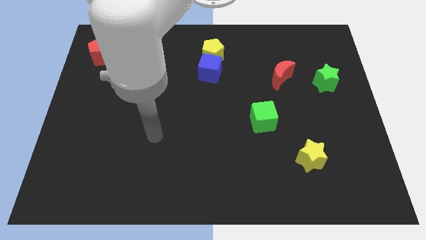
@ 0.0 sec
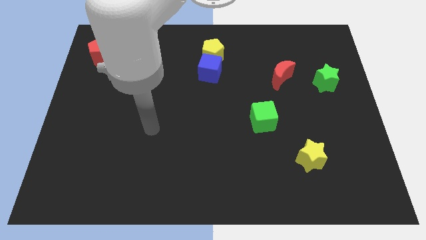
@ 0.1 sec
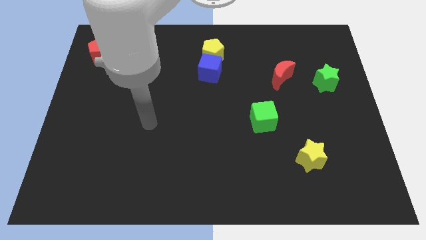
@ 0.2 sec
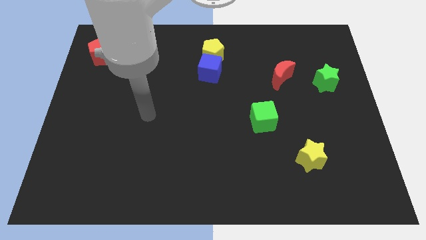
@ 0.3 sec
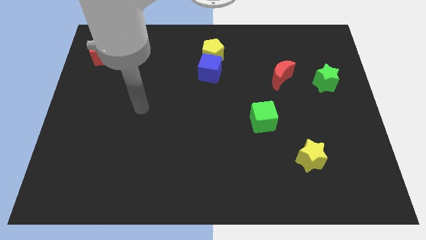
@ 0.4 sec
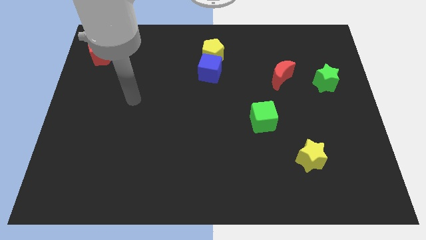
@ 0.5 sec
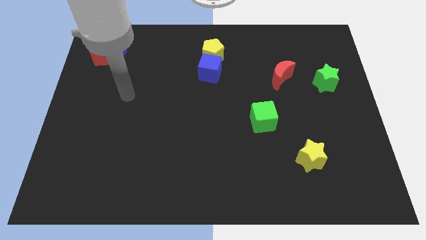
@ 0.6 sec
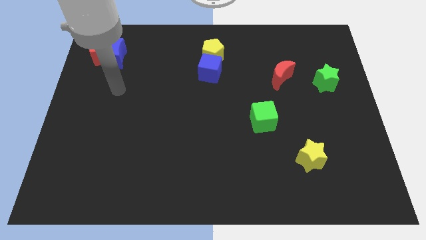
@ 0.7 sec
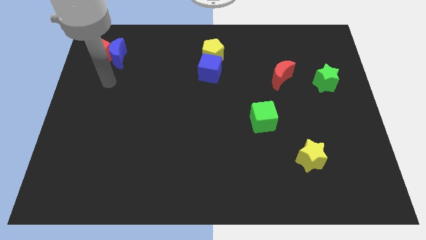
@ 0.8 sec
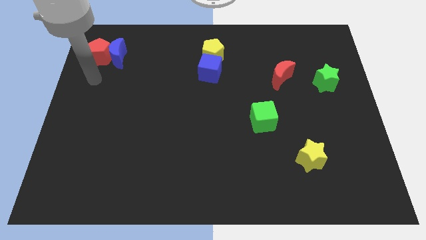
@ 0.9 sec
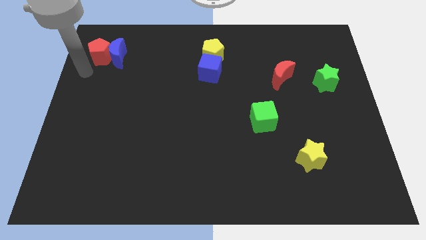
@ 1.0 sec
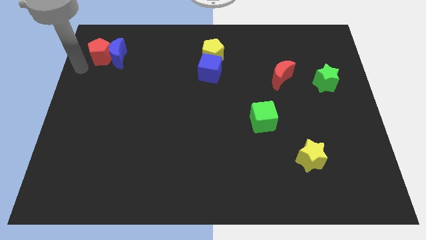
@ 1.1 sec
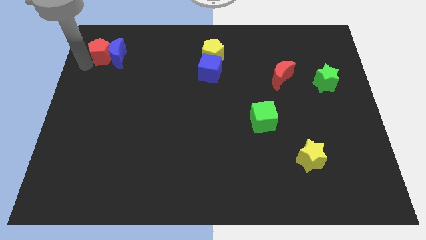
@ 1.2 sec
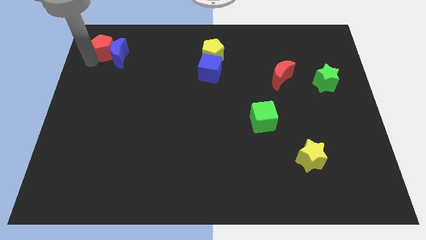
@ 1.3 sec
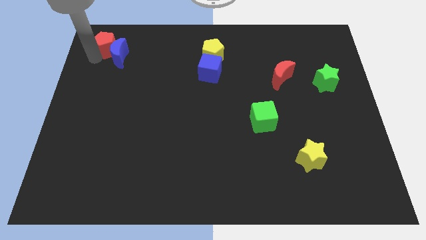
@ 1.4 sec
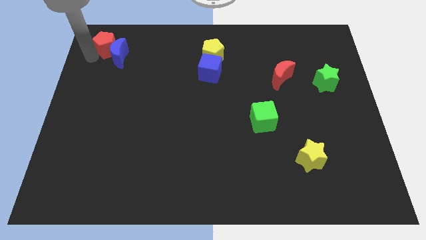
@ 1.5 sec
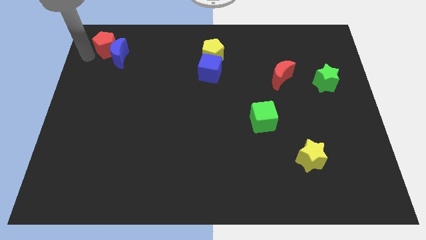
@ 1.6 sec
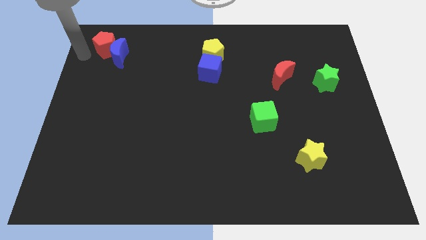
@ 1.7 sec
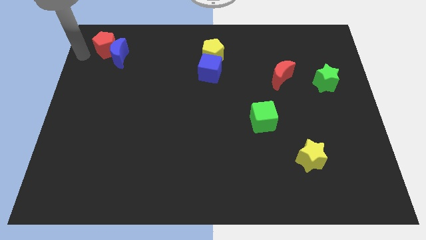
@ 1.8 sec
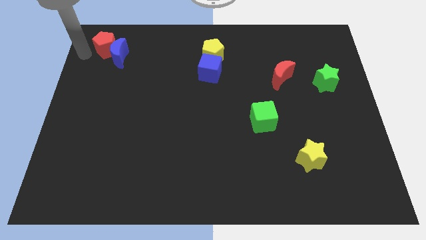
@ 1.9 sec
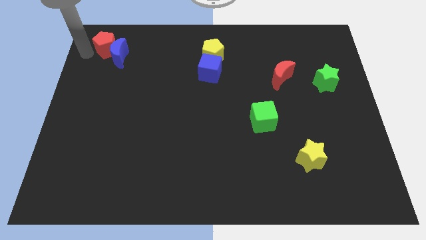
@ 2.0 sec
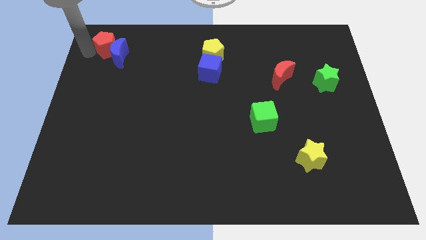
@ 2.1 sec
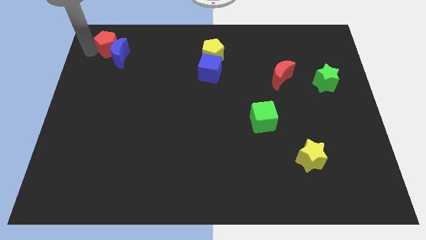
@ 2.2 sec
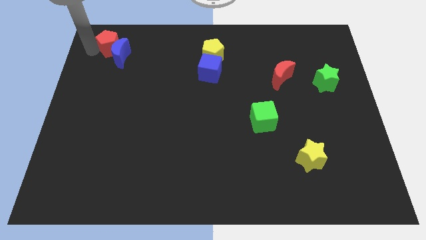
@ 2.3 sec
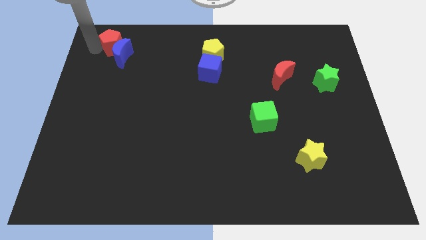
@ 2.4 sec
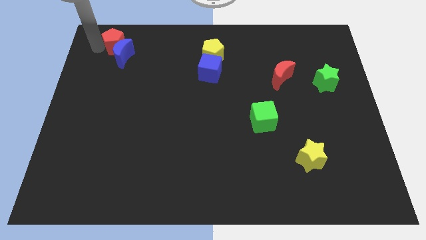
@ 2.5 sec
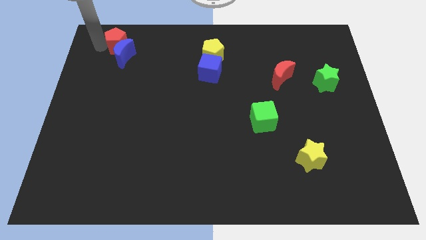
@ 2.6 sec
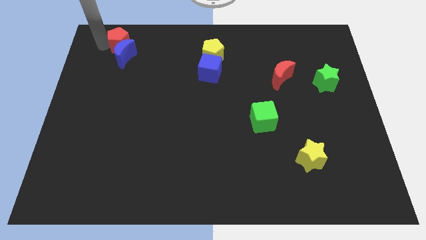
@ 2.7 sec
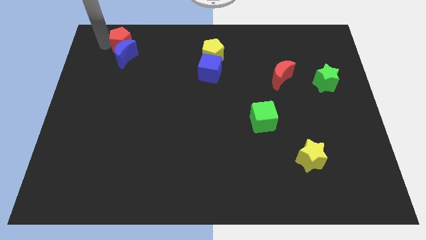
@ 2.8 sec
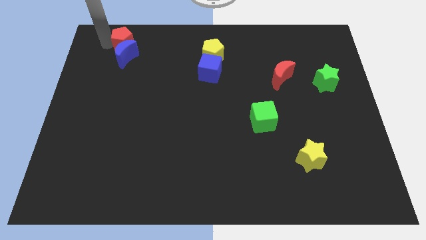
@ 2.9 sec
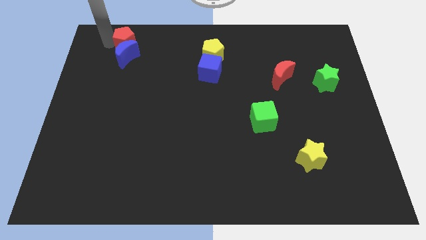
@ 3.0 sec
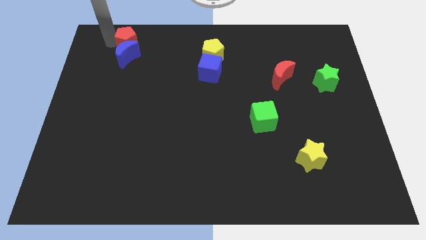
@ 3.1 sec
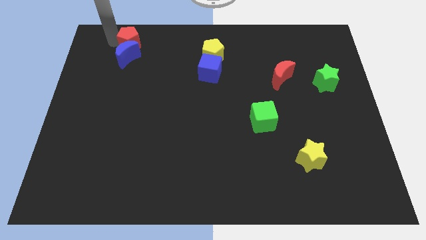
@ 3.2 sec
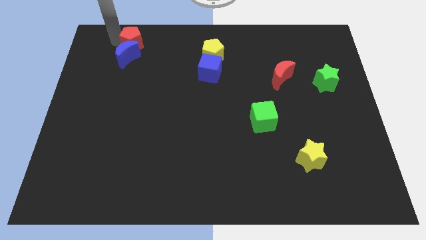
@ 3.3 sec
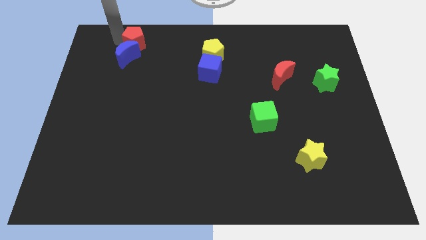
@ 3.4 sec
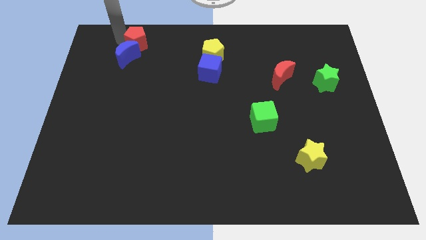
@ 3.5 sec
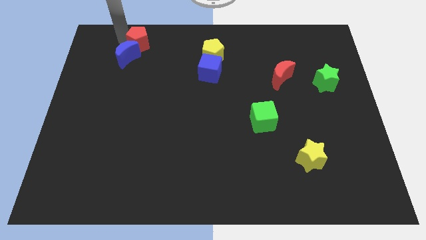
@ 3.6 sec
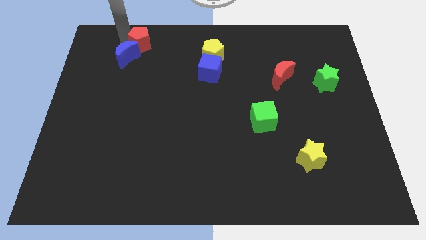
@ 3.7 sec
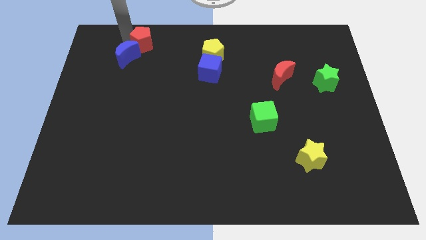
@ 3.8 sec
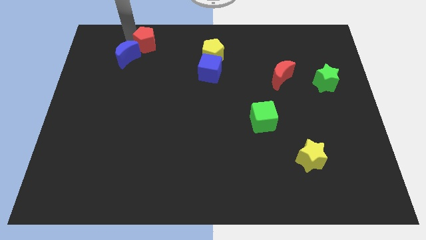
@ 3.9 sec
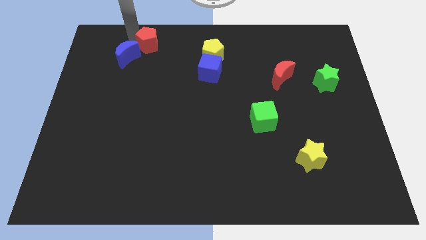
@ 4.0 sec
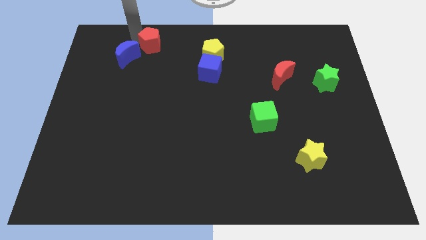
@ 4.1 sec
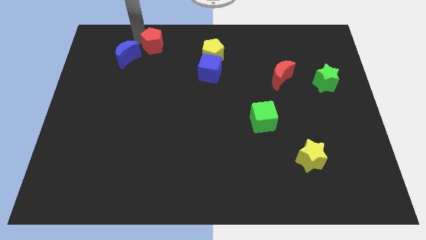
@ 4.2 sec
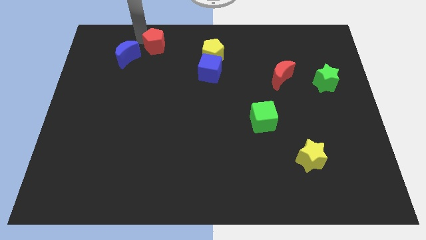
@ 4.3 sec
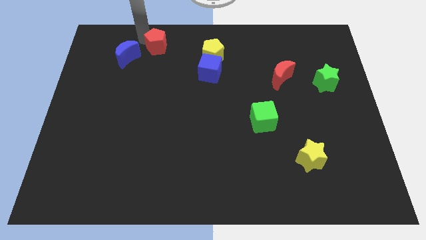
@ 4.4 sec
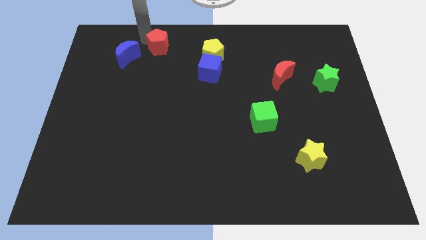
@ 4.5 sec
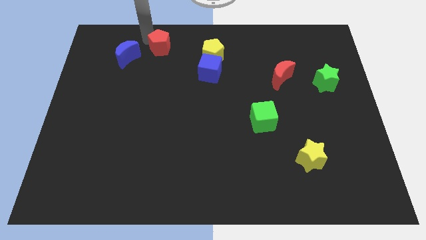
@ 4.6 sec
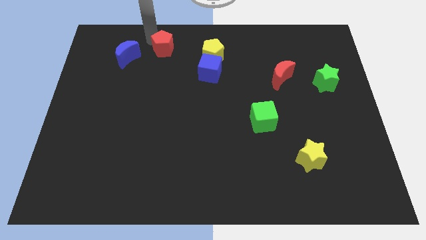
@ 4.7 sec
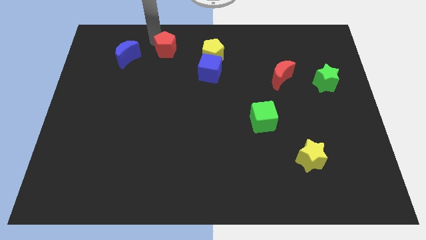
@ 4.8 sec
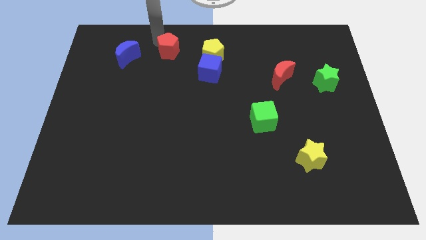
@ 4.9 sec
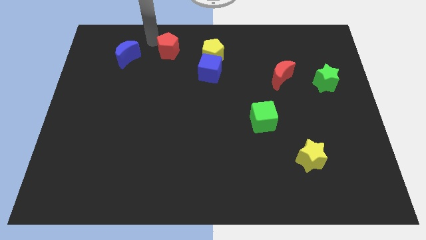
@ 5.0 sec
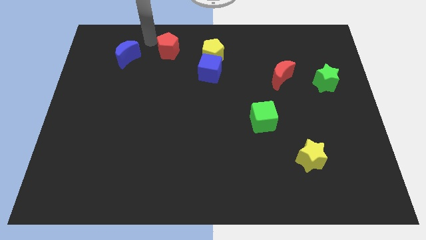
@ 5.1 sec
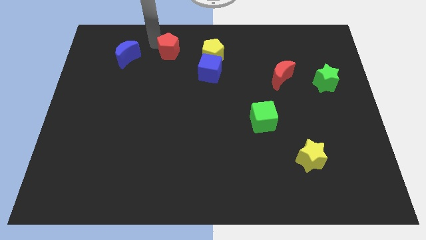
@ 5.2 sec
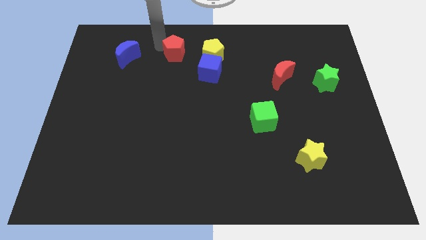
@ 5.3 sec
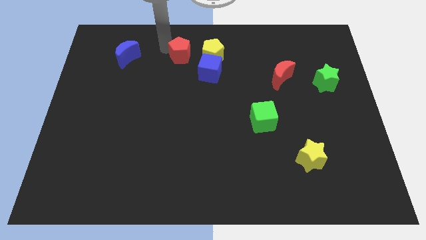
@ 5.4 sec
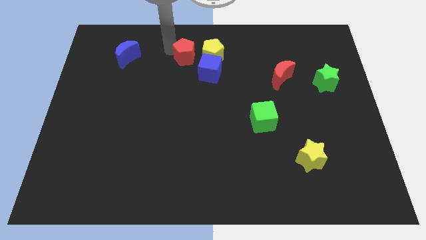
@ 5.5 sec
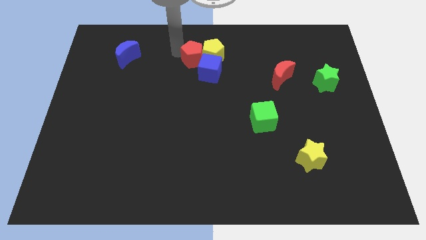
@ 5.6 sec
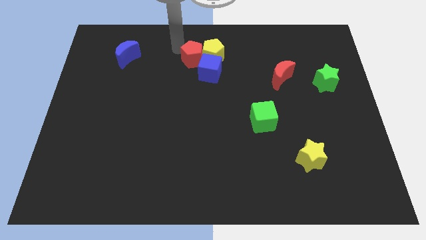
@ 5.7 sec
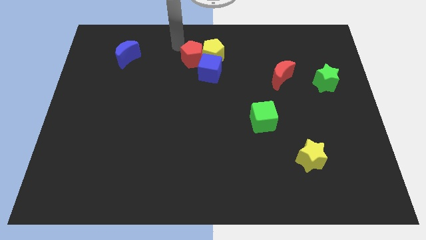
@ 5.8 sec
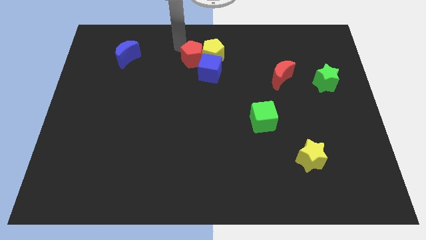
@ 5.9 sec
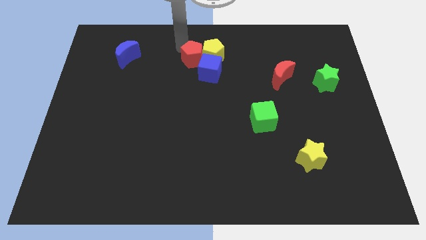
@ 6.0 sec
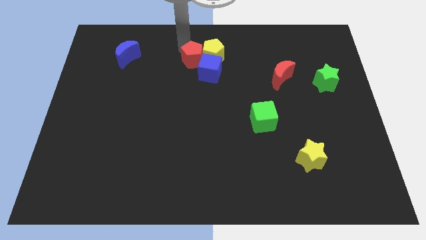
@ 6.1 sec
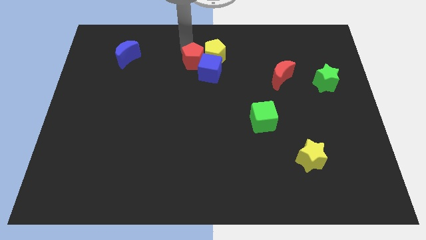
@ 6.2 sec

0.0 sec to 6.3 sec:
move the red pentagon towards the blue cube

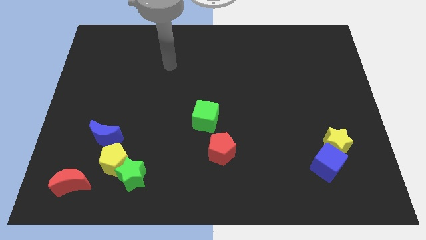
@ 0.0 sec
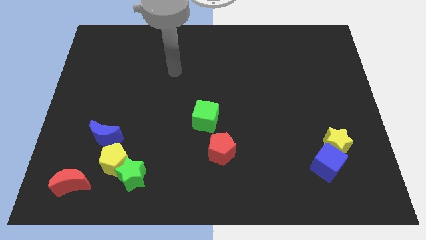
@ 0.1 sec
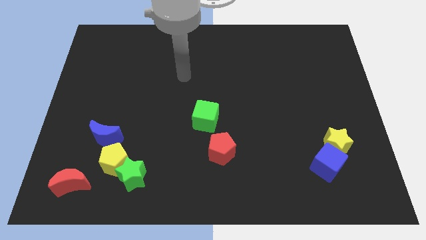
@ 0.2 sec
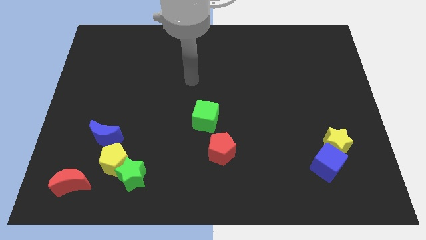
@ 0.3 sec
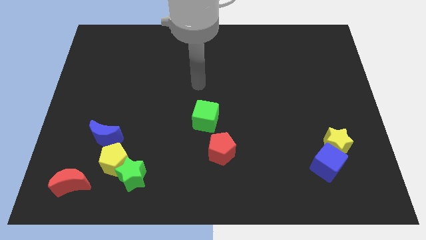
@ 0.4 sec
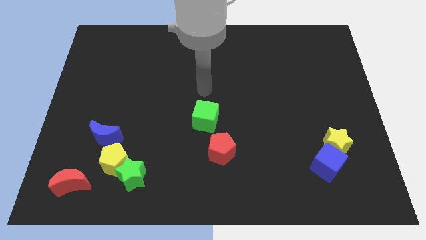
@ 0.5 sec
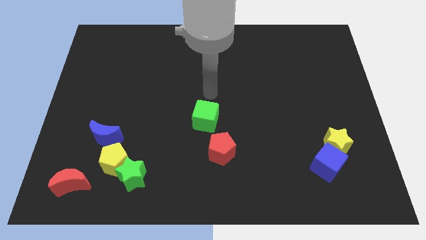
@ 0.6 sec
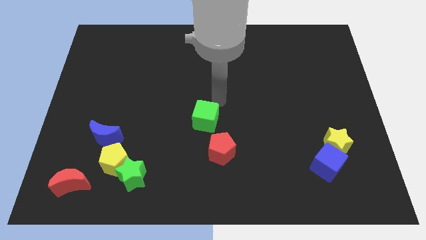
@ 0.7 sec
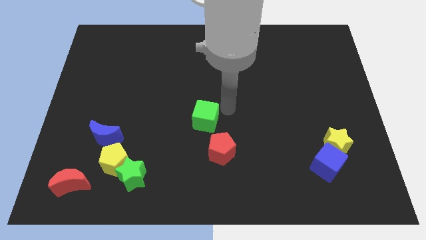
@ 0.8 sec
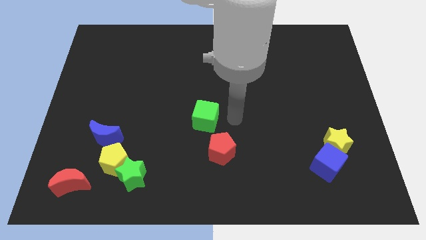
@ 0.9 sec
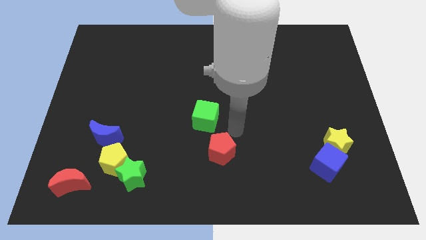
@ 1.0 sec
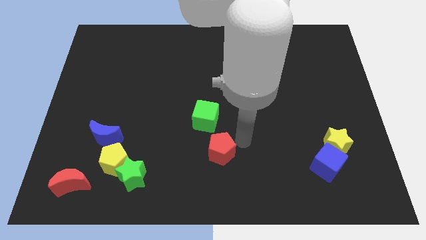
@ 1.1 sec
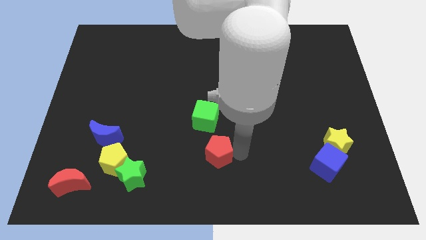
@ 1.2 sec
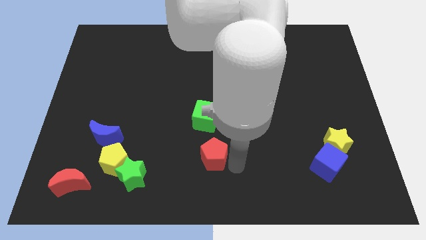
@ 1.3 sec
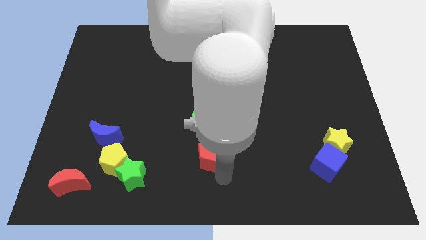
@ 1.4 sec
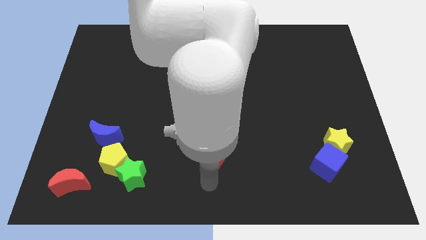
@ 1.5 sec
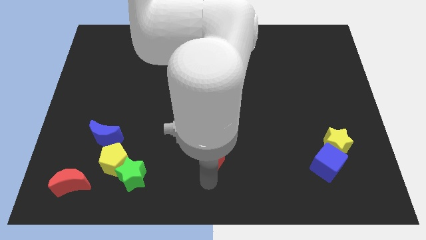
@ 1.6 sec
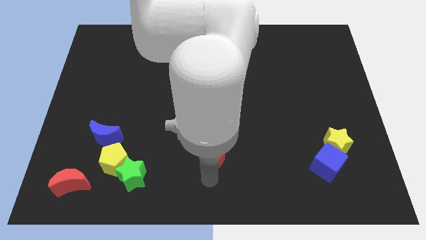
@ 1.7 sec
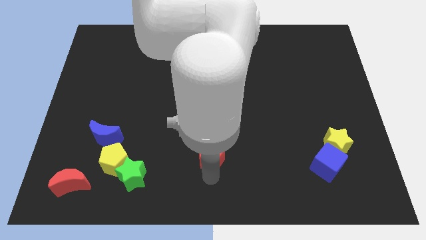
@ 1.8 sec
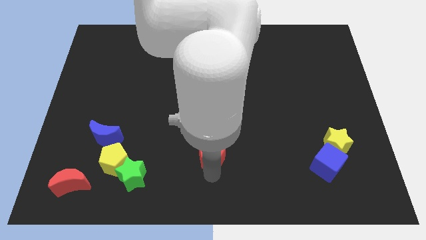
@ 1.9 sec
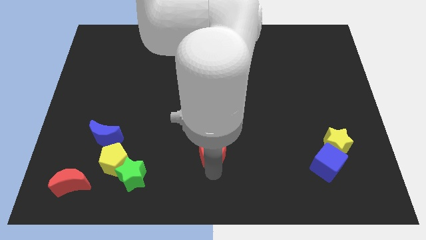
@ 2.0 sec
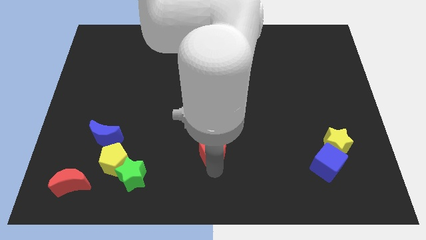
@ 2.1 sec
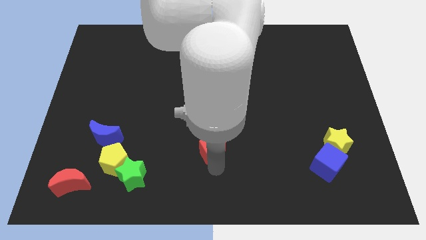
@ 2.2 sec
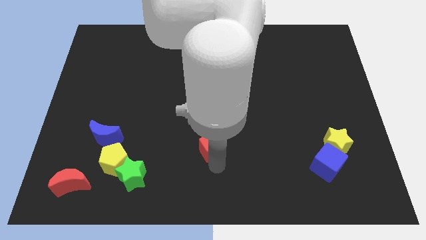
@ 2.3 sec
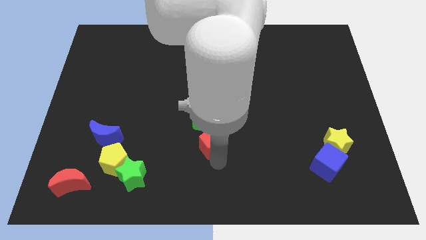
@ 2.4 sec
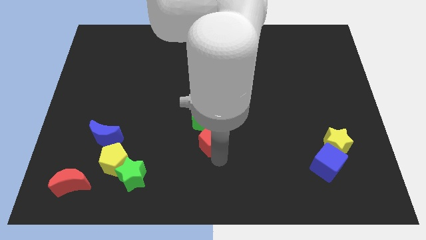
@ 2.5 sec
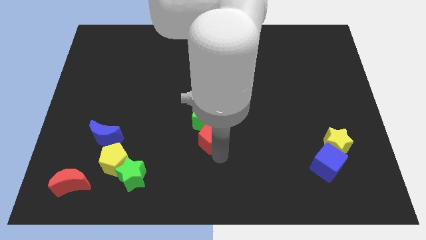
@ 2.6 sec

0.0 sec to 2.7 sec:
move the red pentagon next to the green cube
